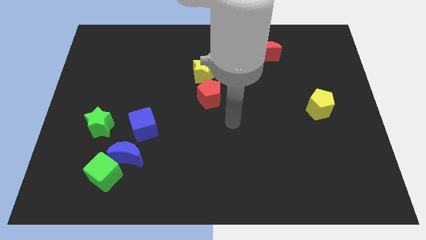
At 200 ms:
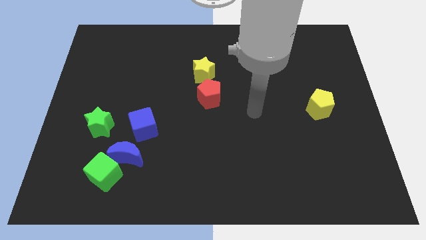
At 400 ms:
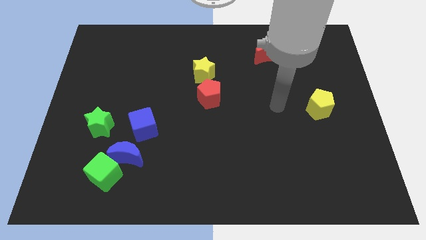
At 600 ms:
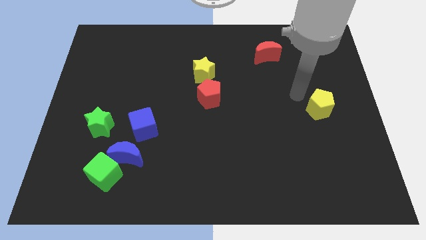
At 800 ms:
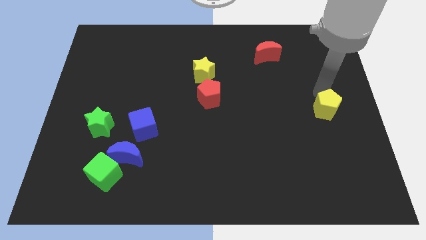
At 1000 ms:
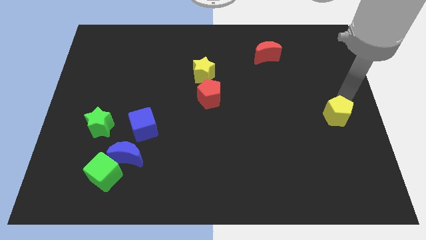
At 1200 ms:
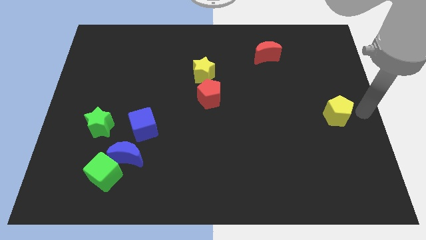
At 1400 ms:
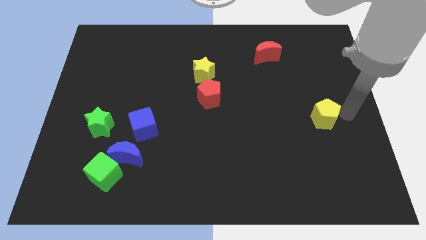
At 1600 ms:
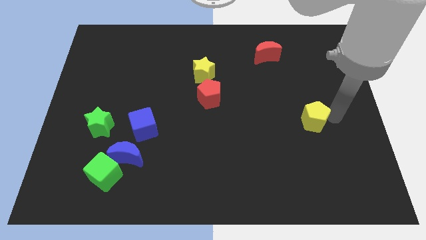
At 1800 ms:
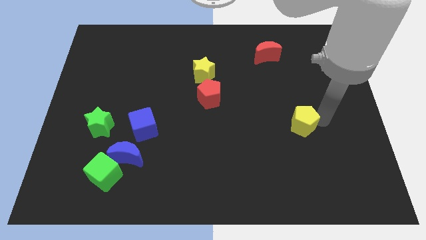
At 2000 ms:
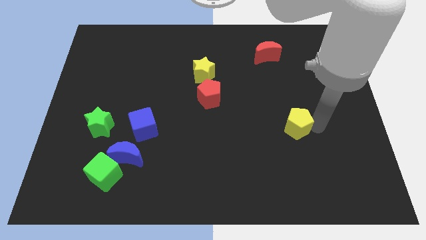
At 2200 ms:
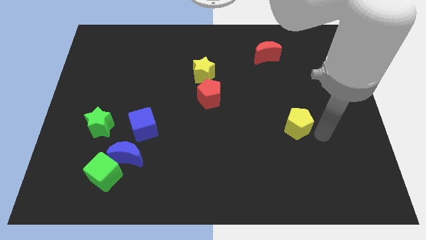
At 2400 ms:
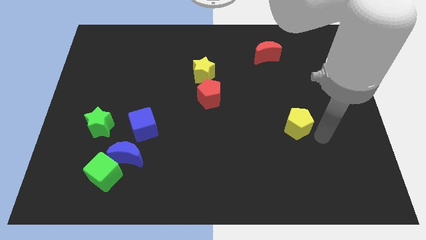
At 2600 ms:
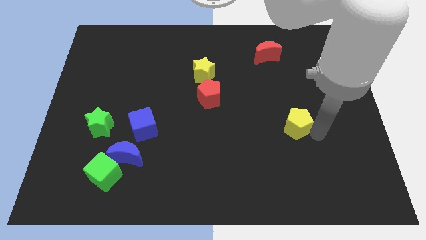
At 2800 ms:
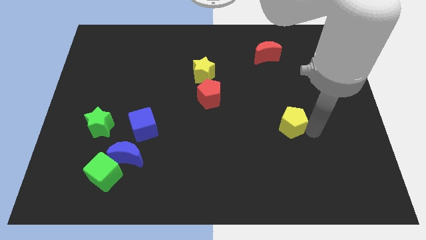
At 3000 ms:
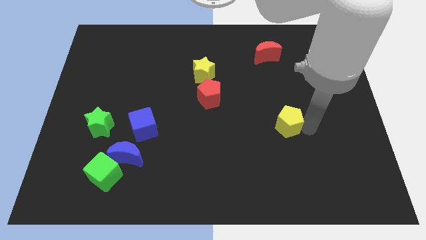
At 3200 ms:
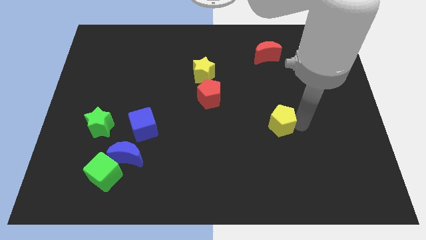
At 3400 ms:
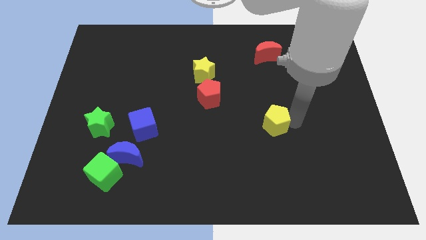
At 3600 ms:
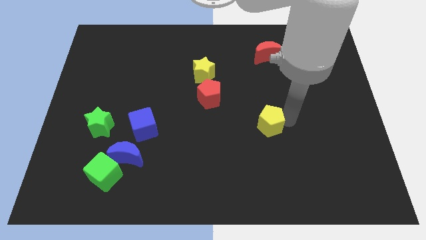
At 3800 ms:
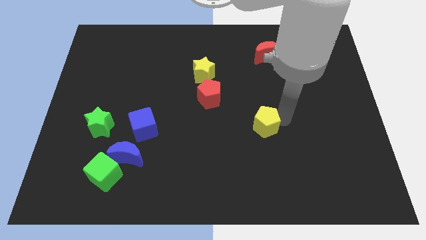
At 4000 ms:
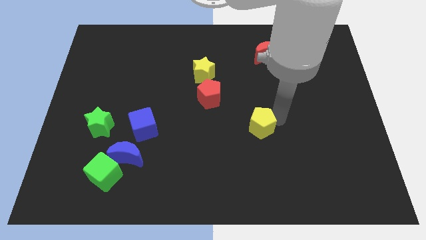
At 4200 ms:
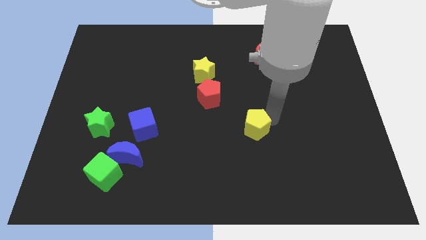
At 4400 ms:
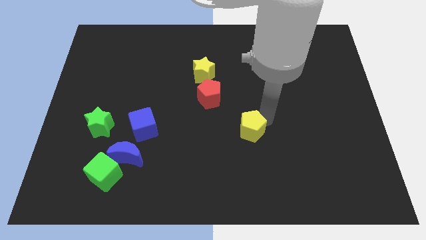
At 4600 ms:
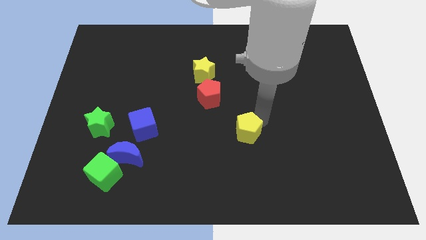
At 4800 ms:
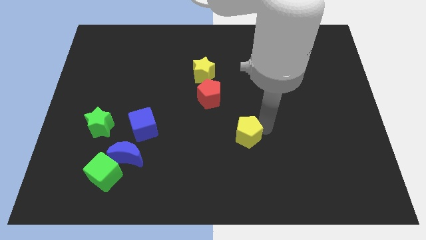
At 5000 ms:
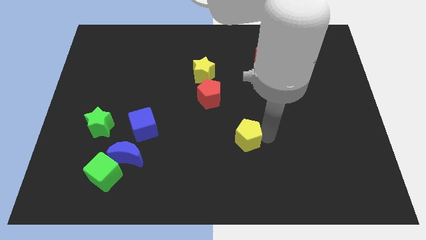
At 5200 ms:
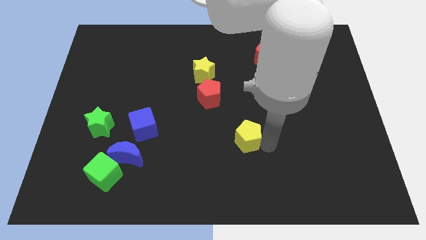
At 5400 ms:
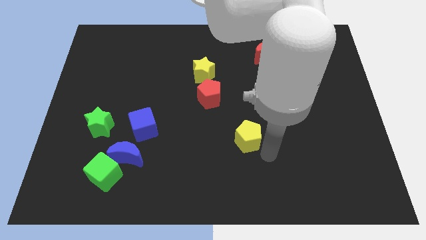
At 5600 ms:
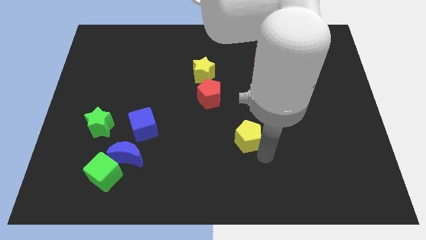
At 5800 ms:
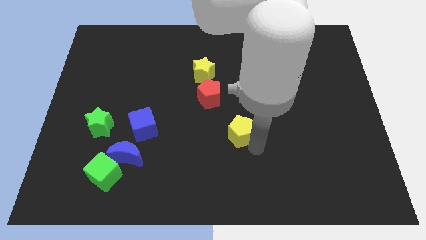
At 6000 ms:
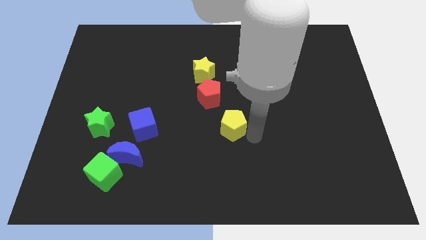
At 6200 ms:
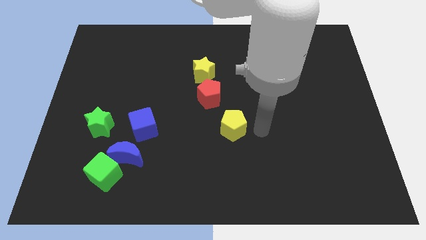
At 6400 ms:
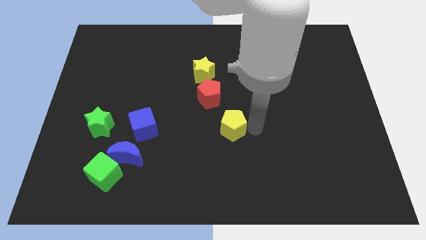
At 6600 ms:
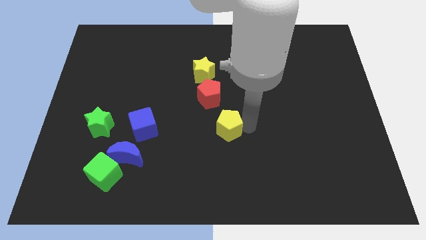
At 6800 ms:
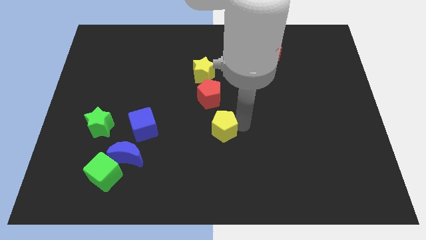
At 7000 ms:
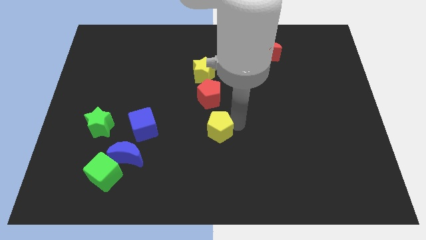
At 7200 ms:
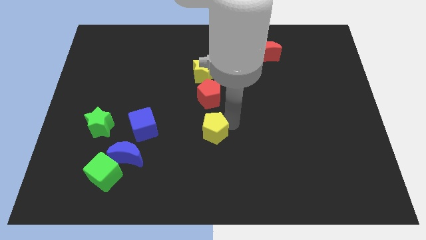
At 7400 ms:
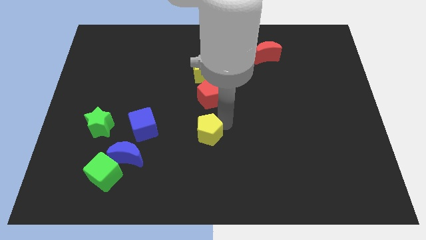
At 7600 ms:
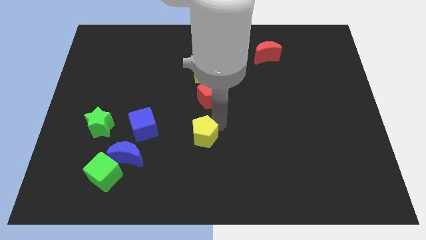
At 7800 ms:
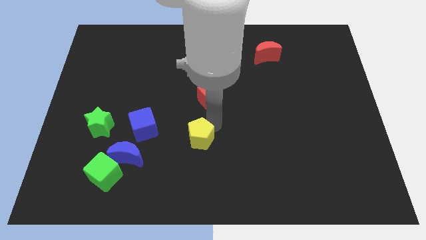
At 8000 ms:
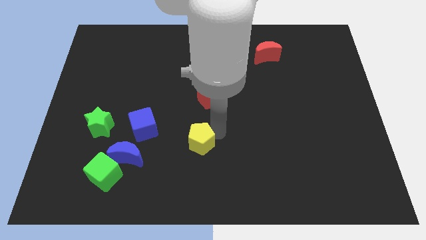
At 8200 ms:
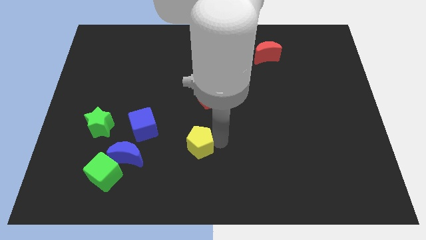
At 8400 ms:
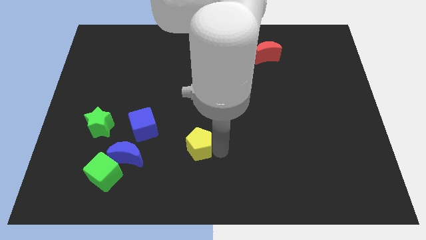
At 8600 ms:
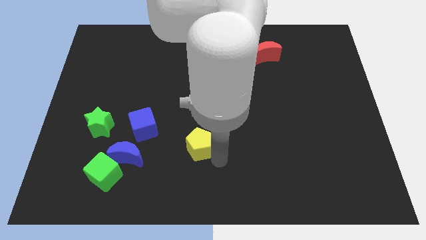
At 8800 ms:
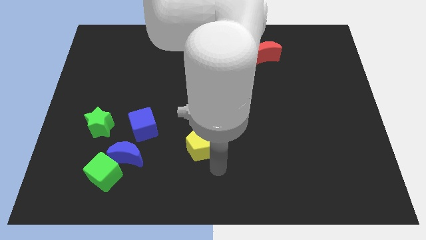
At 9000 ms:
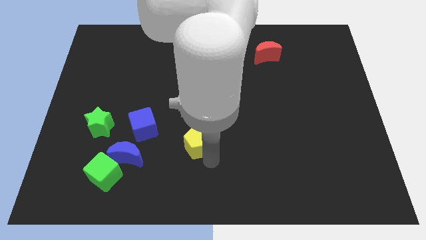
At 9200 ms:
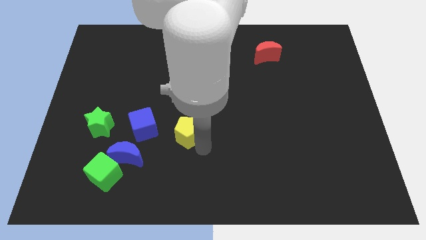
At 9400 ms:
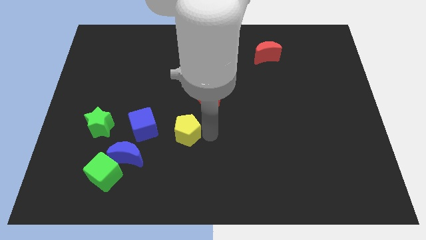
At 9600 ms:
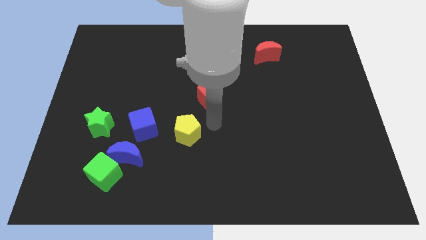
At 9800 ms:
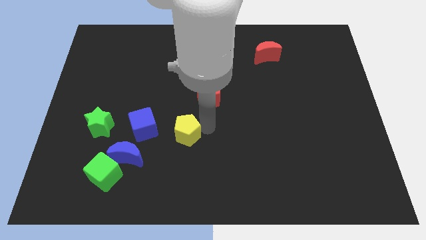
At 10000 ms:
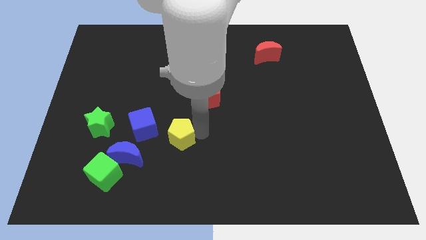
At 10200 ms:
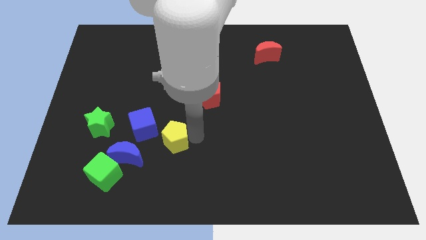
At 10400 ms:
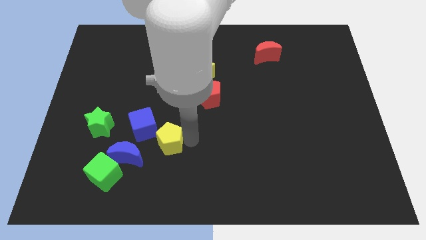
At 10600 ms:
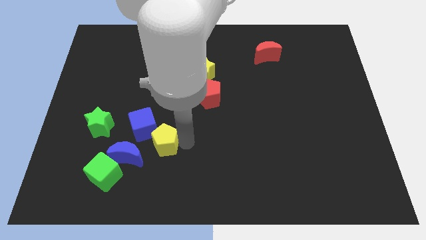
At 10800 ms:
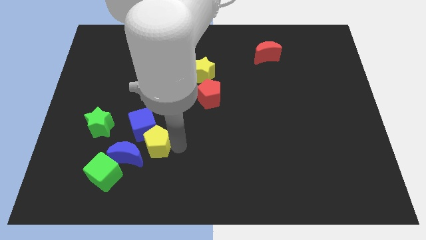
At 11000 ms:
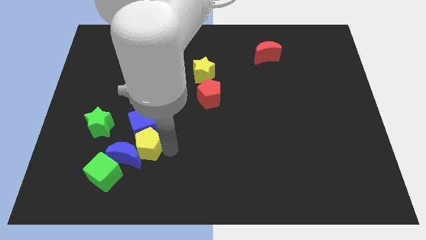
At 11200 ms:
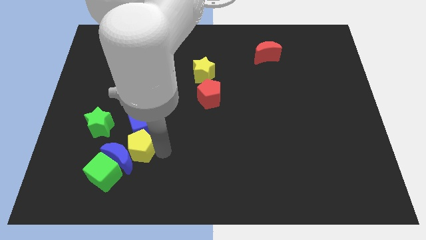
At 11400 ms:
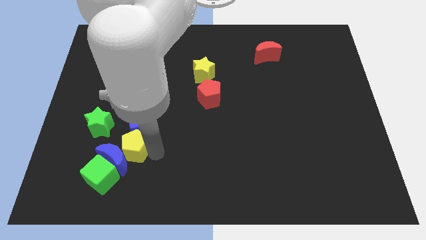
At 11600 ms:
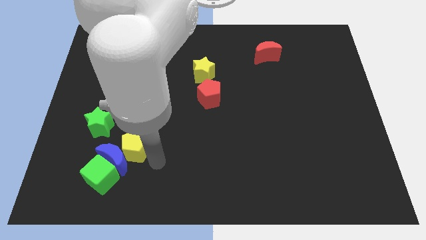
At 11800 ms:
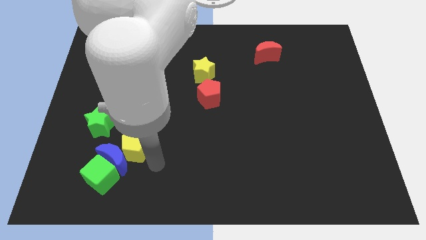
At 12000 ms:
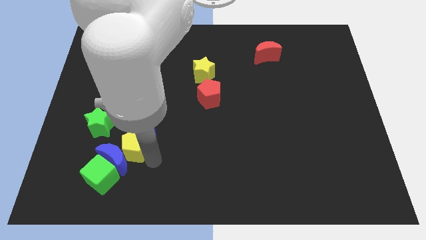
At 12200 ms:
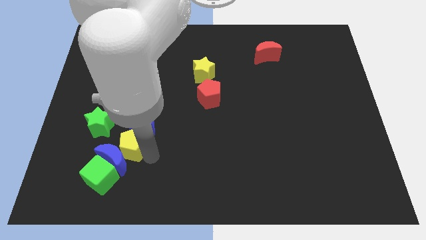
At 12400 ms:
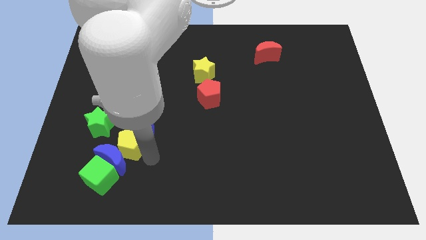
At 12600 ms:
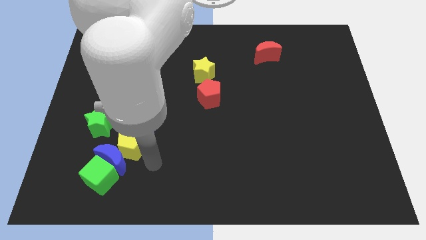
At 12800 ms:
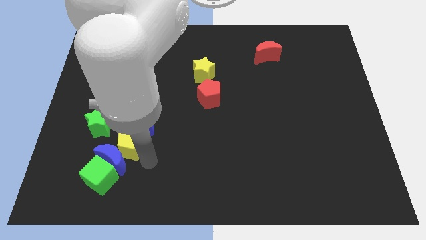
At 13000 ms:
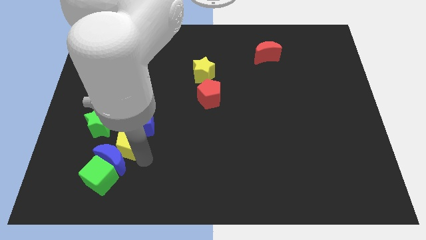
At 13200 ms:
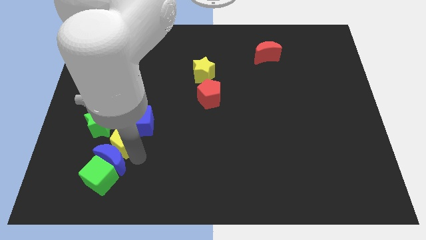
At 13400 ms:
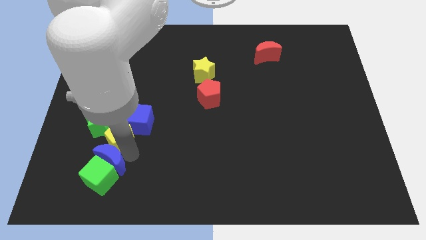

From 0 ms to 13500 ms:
push the yellow pentagon close to the green star
